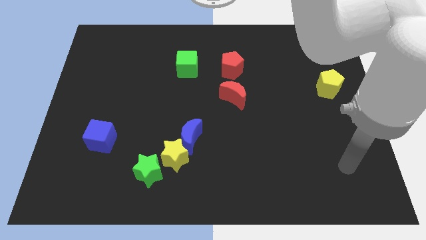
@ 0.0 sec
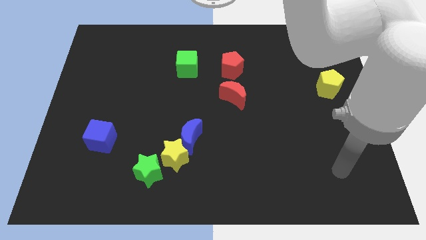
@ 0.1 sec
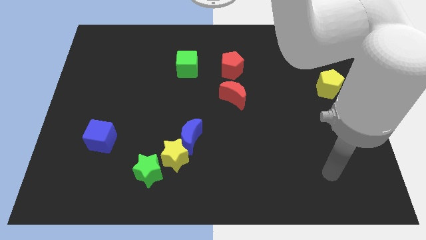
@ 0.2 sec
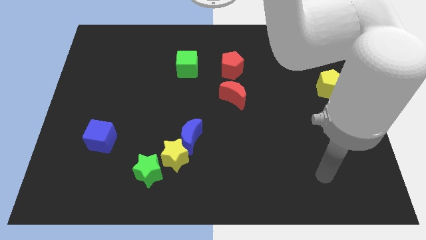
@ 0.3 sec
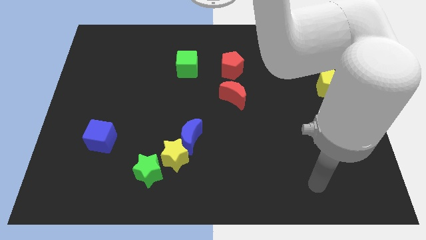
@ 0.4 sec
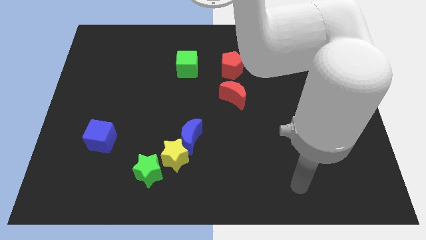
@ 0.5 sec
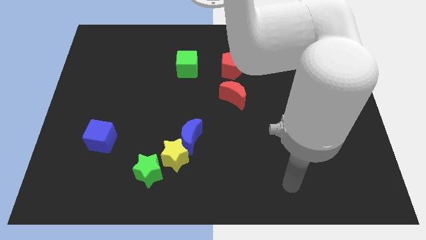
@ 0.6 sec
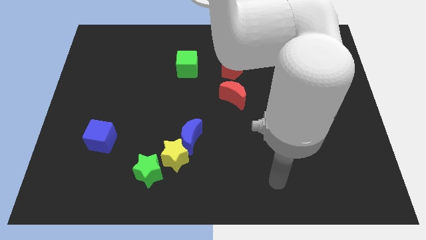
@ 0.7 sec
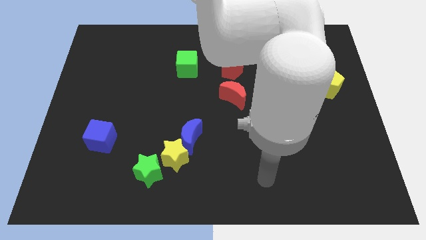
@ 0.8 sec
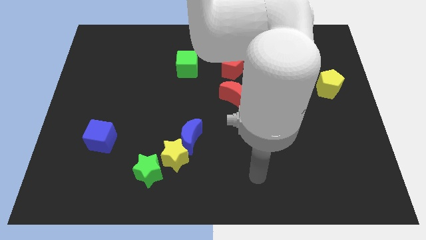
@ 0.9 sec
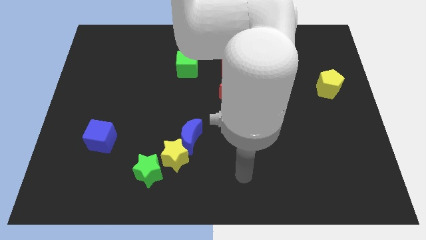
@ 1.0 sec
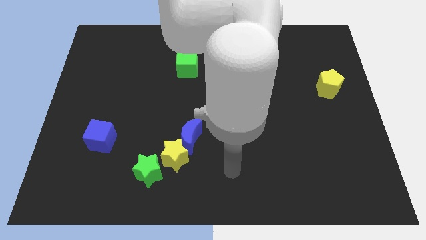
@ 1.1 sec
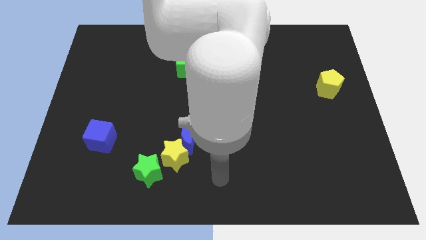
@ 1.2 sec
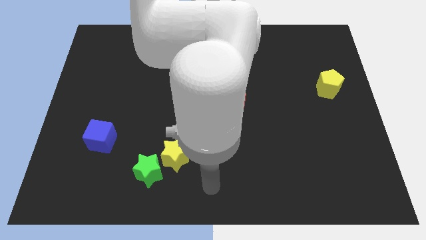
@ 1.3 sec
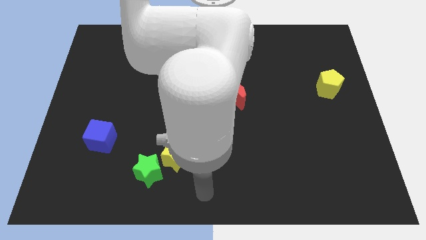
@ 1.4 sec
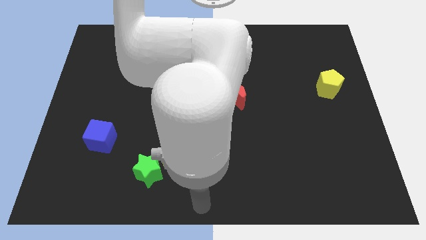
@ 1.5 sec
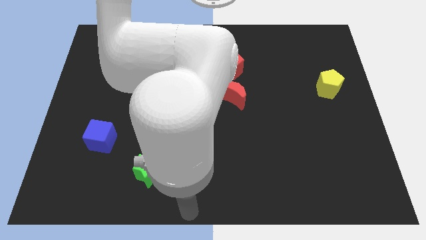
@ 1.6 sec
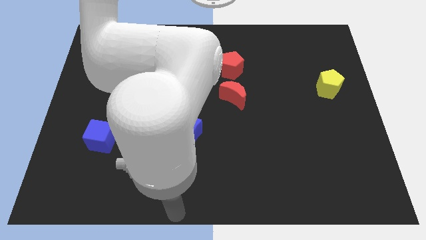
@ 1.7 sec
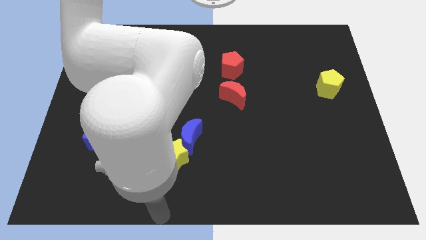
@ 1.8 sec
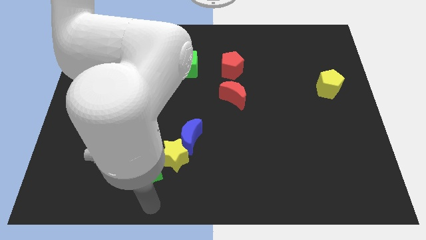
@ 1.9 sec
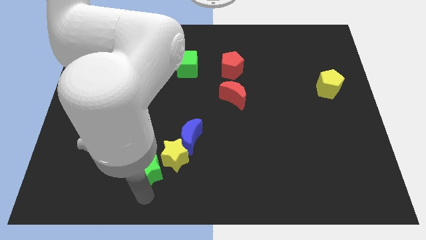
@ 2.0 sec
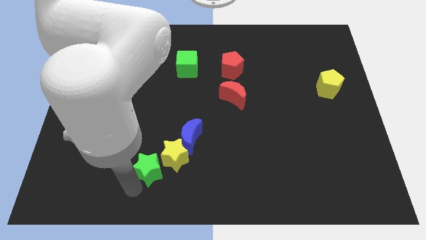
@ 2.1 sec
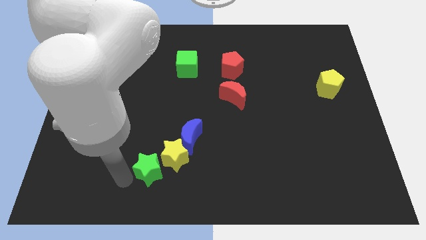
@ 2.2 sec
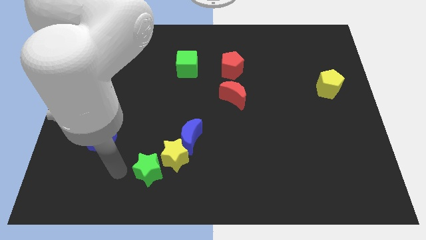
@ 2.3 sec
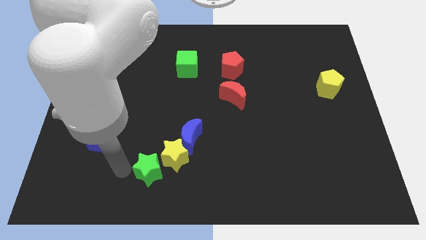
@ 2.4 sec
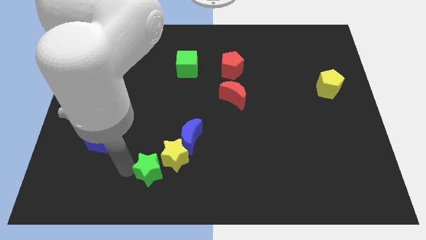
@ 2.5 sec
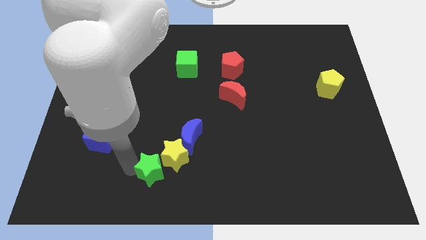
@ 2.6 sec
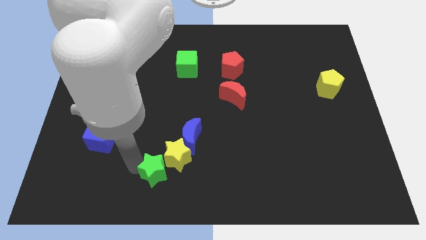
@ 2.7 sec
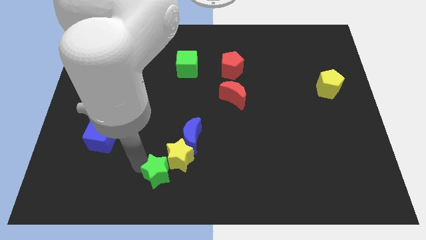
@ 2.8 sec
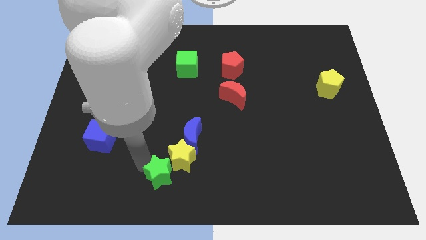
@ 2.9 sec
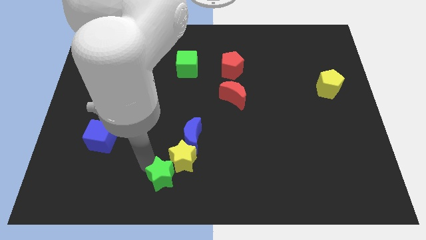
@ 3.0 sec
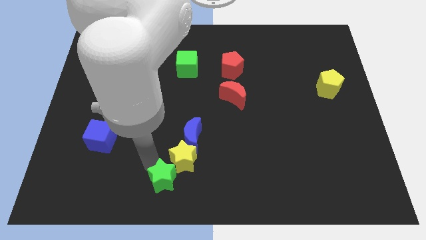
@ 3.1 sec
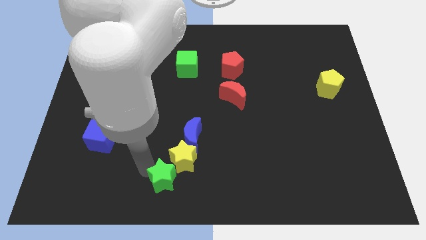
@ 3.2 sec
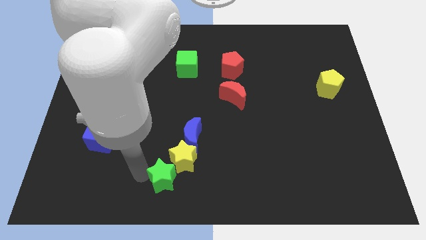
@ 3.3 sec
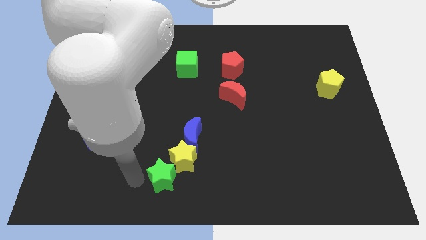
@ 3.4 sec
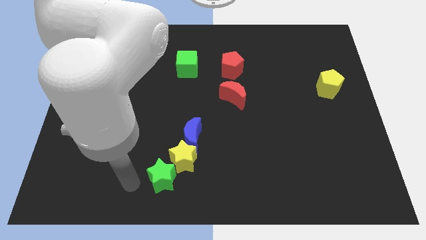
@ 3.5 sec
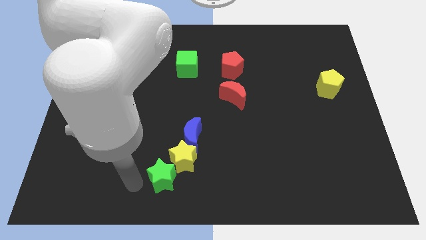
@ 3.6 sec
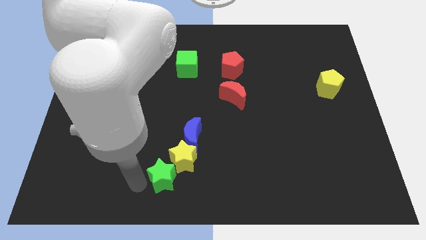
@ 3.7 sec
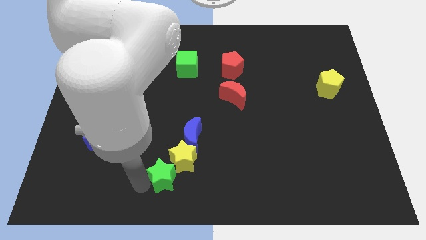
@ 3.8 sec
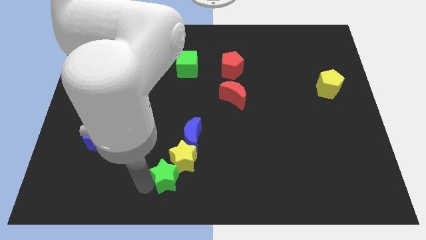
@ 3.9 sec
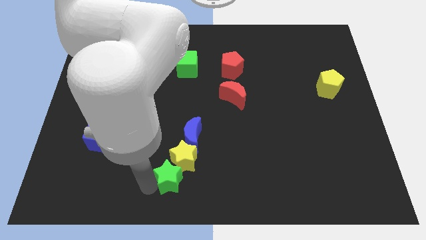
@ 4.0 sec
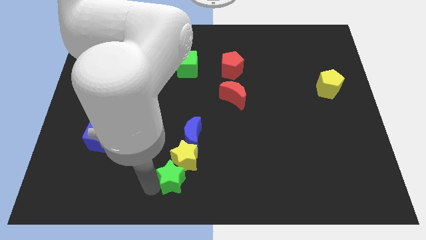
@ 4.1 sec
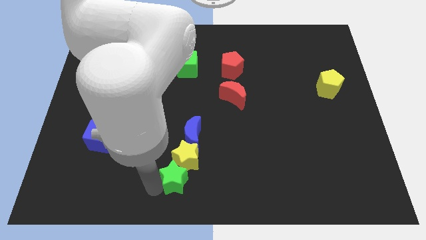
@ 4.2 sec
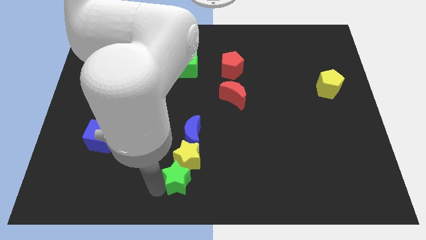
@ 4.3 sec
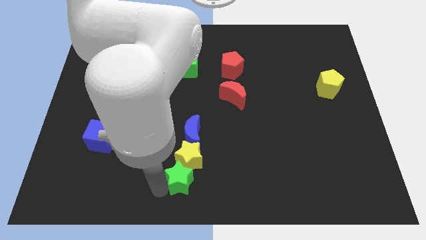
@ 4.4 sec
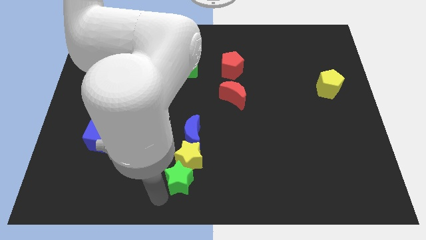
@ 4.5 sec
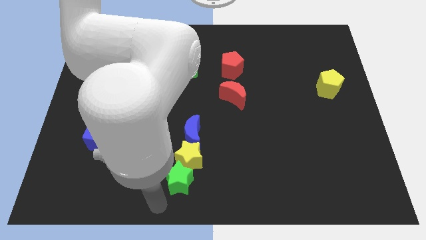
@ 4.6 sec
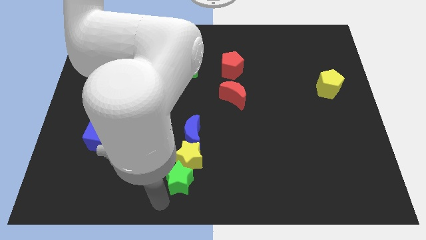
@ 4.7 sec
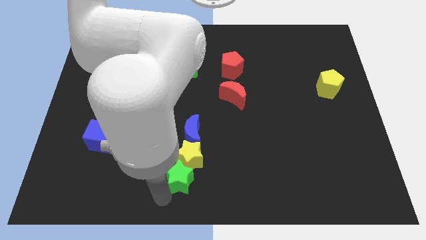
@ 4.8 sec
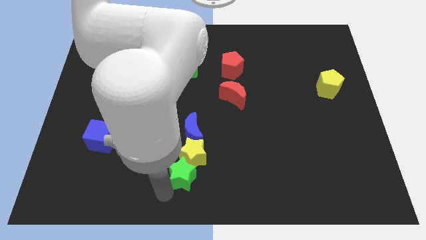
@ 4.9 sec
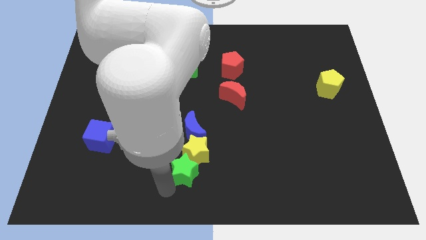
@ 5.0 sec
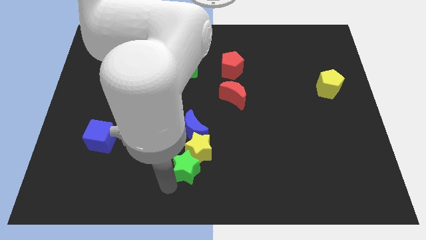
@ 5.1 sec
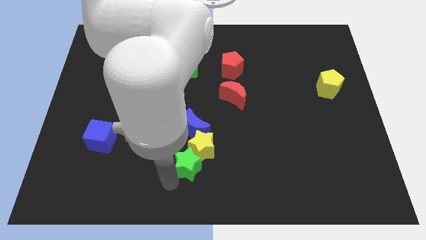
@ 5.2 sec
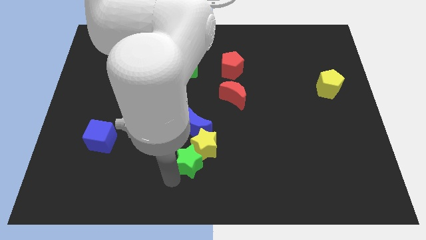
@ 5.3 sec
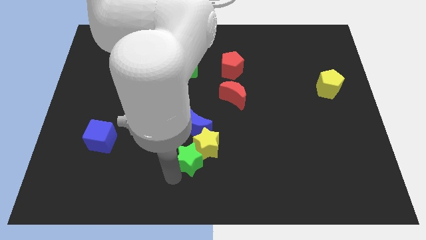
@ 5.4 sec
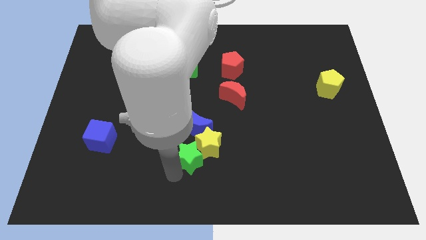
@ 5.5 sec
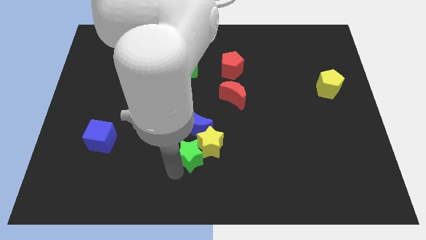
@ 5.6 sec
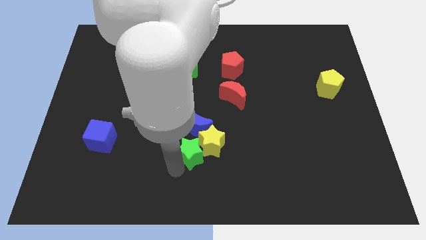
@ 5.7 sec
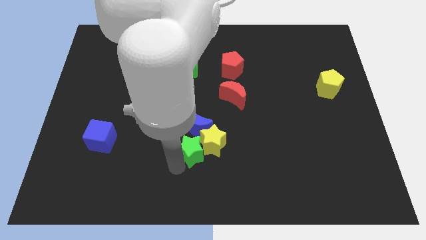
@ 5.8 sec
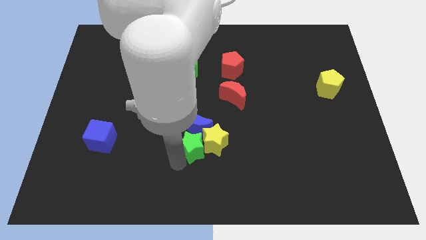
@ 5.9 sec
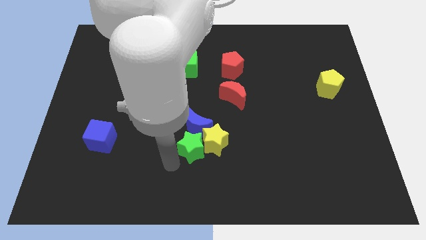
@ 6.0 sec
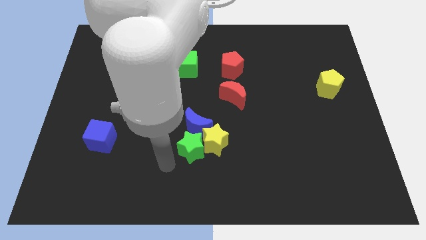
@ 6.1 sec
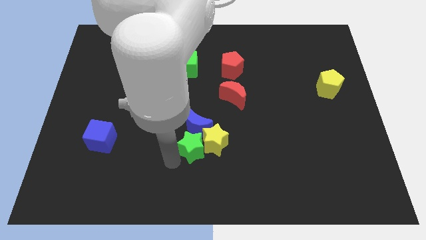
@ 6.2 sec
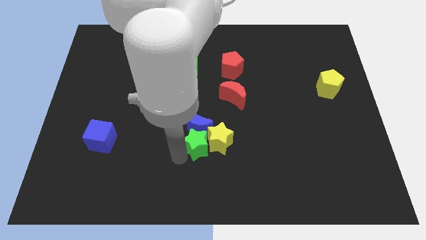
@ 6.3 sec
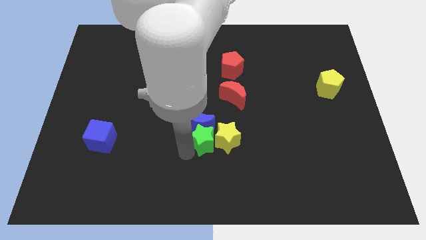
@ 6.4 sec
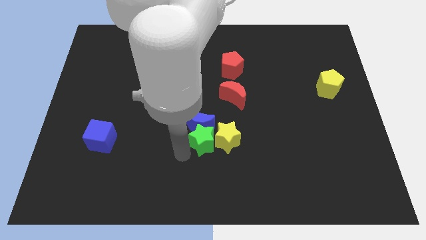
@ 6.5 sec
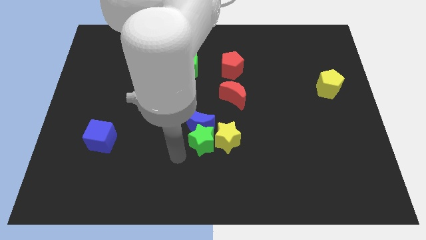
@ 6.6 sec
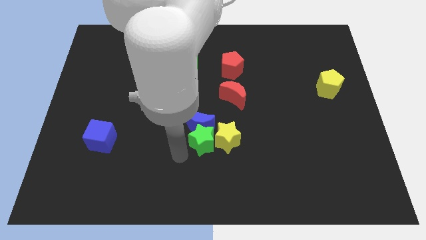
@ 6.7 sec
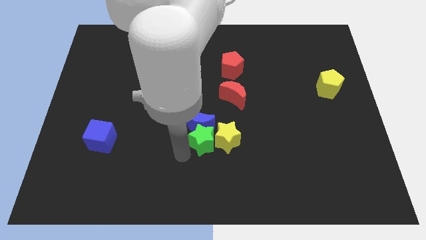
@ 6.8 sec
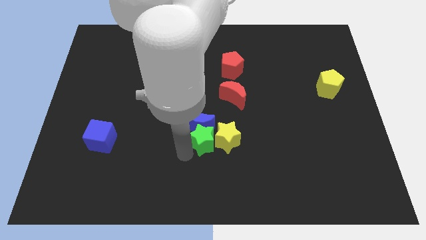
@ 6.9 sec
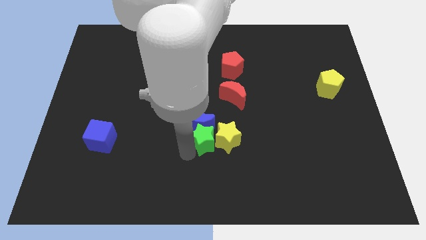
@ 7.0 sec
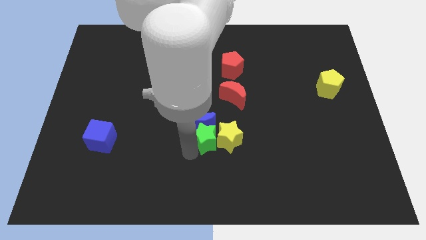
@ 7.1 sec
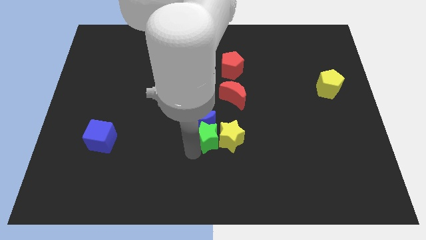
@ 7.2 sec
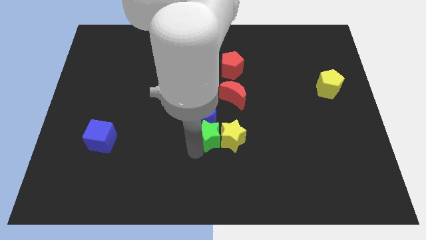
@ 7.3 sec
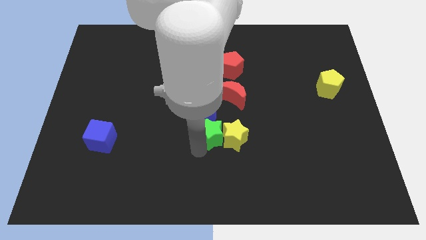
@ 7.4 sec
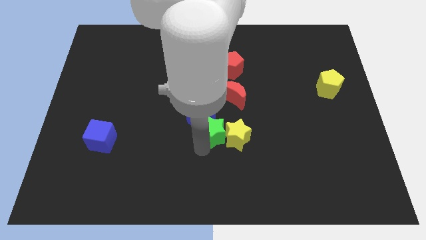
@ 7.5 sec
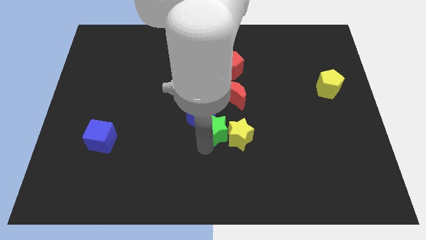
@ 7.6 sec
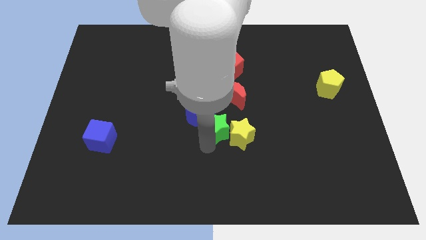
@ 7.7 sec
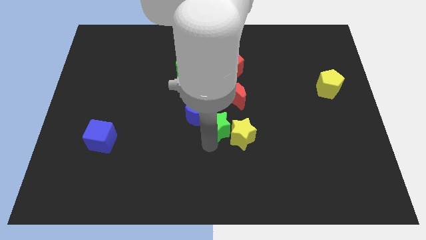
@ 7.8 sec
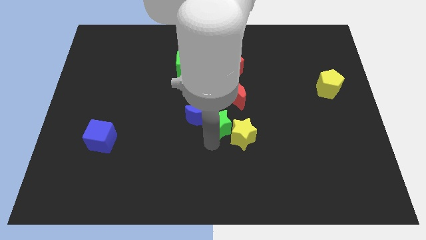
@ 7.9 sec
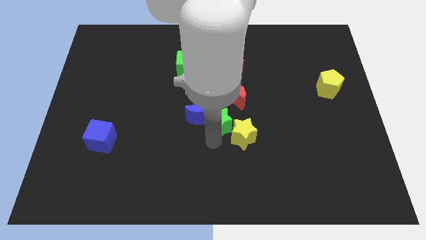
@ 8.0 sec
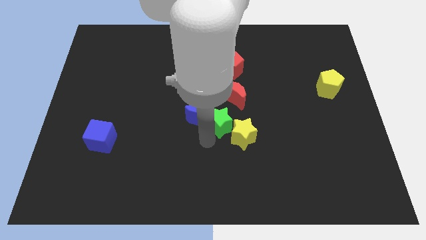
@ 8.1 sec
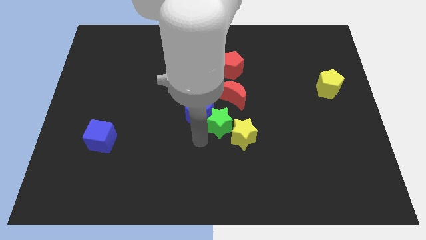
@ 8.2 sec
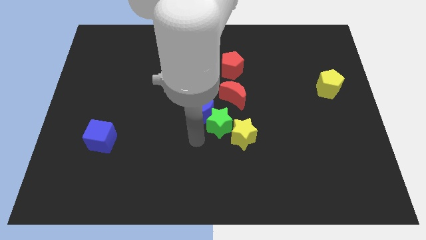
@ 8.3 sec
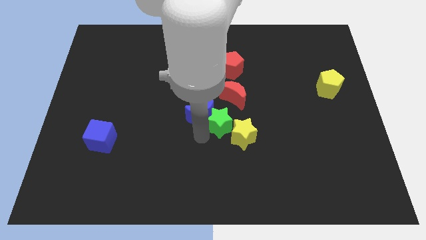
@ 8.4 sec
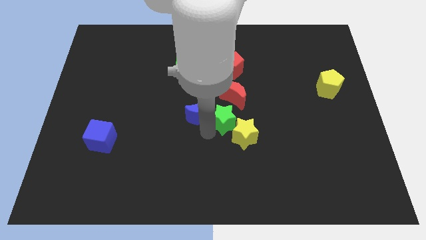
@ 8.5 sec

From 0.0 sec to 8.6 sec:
push the green star up and to the right
